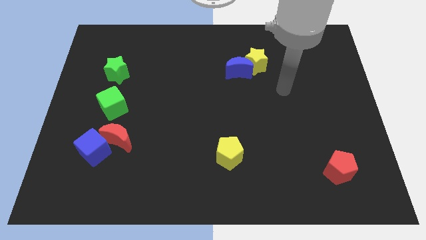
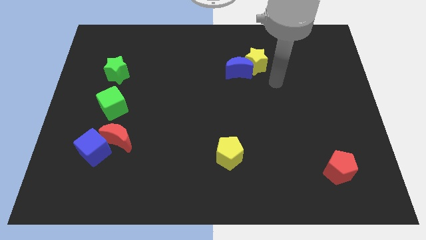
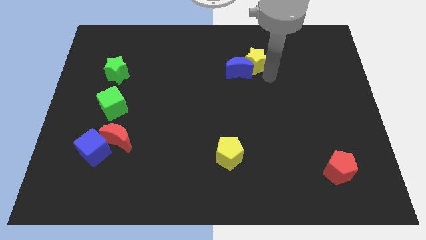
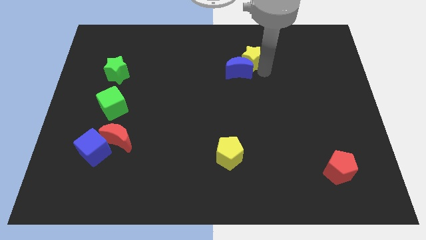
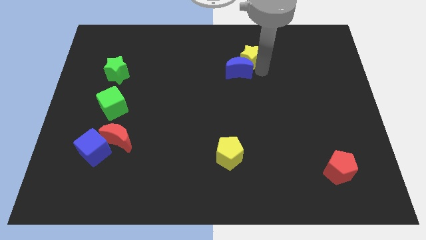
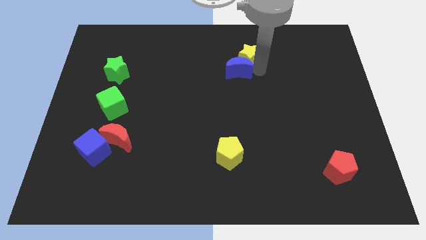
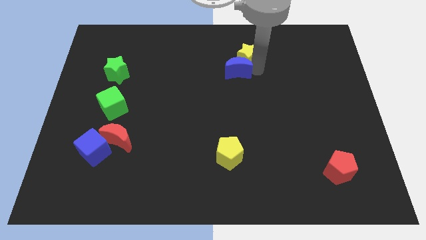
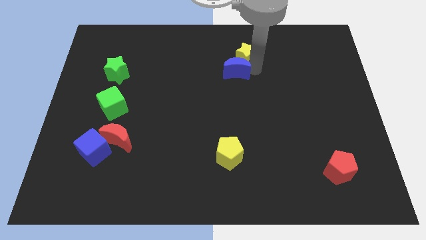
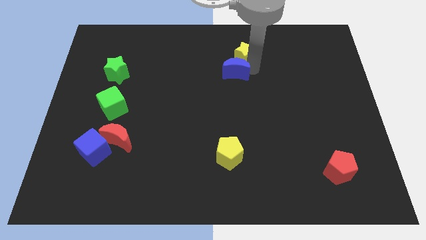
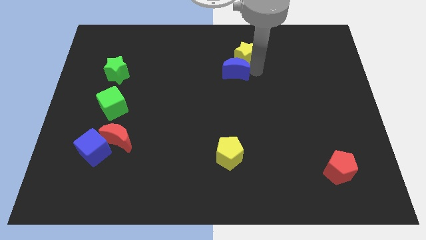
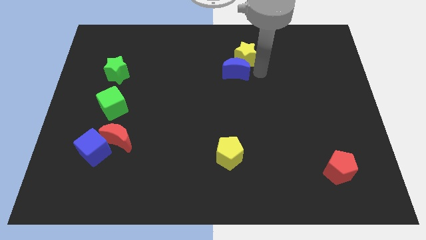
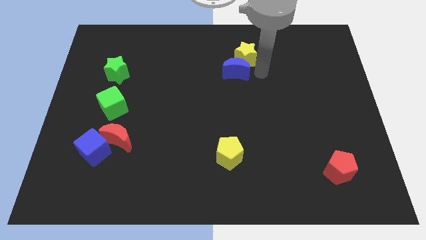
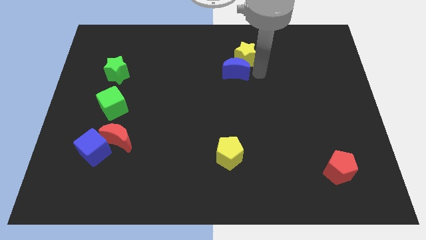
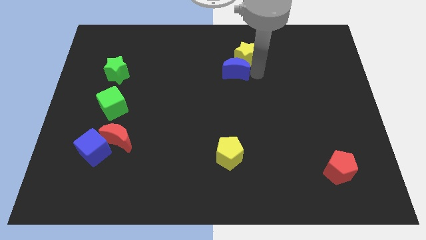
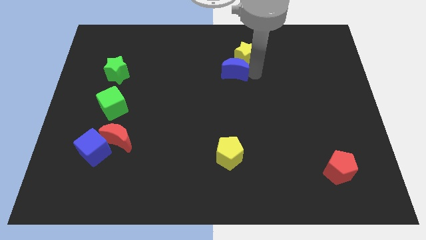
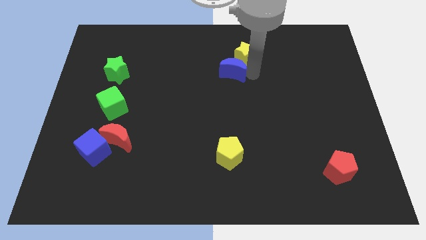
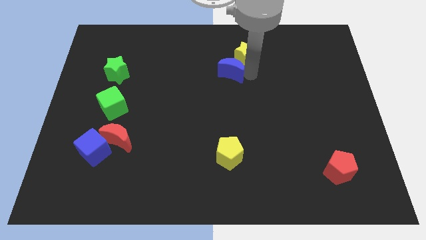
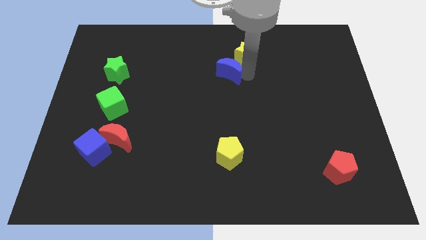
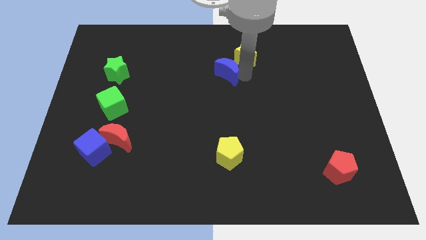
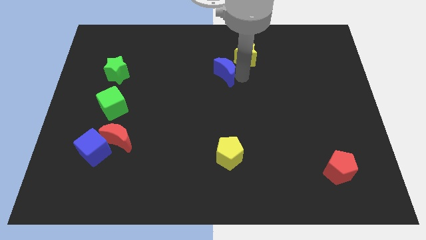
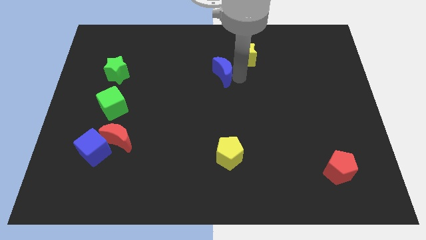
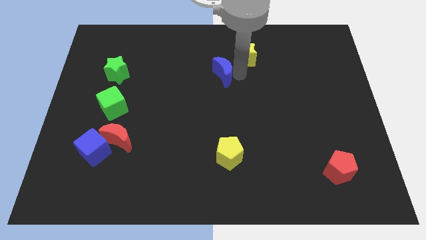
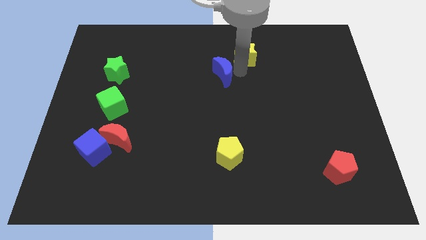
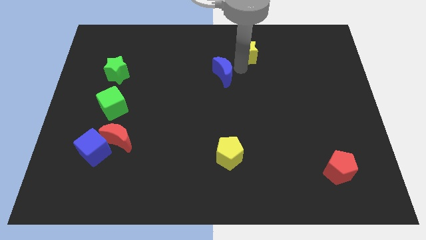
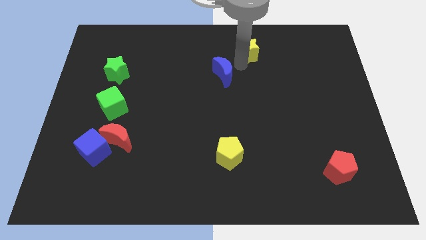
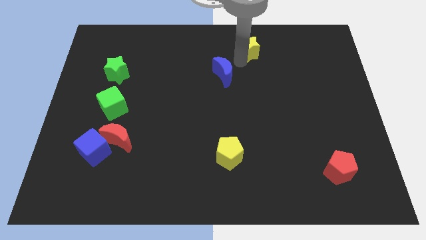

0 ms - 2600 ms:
separate the blue moon from the yellow star

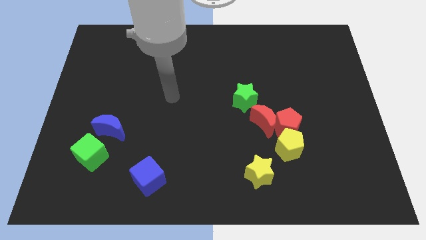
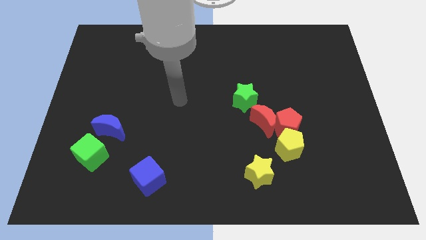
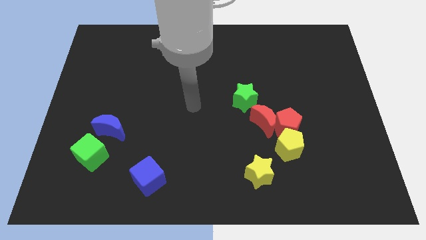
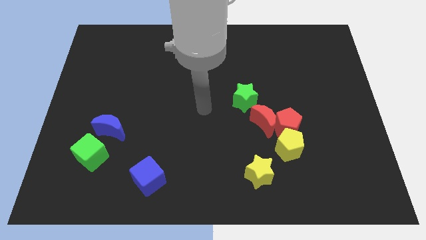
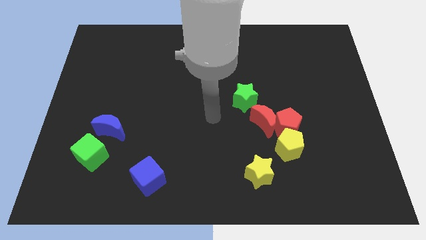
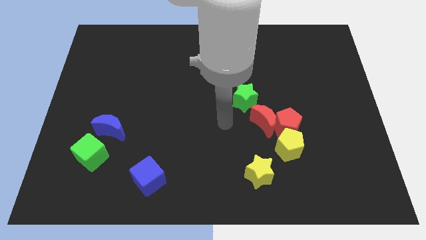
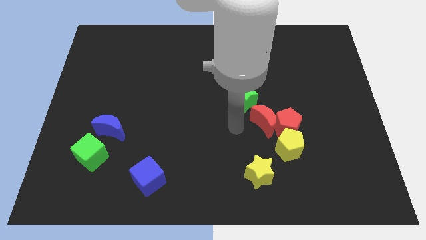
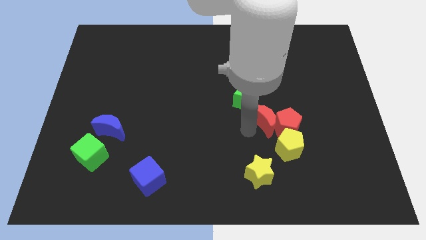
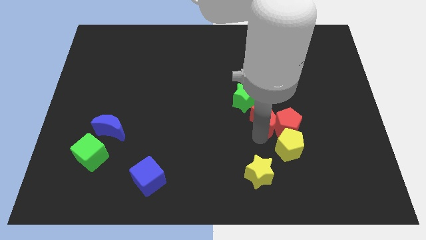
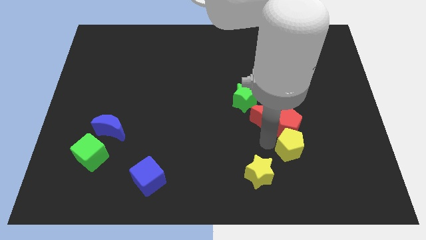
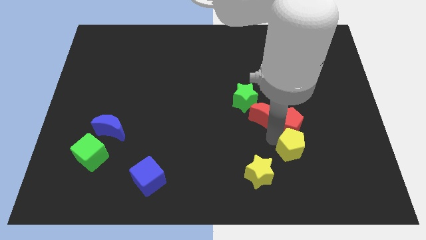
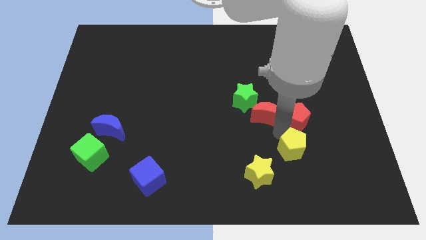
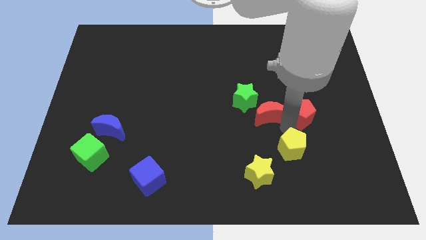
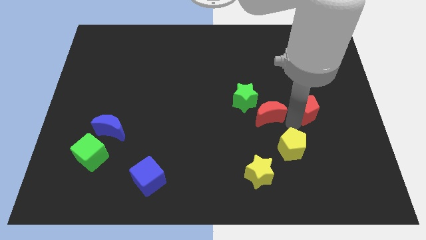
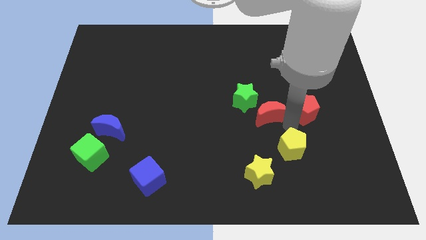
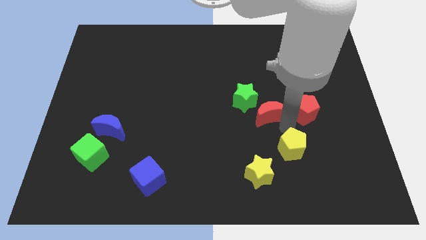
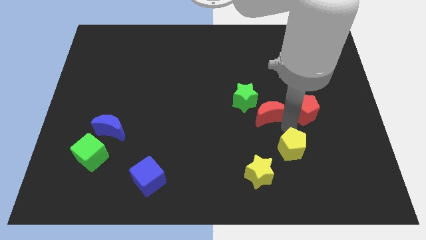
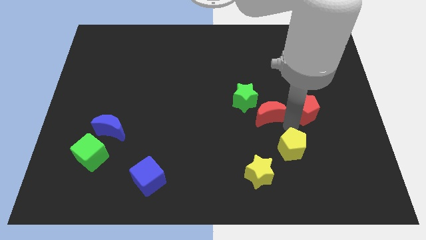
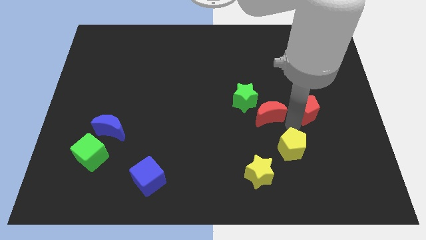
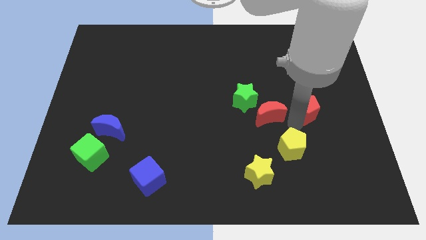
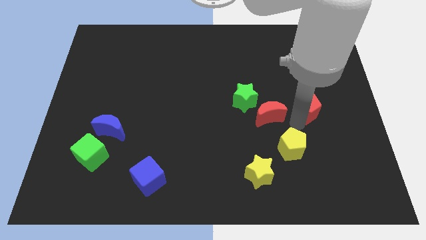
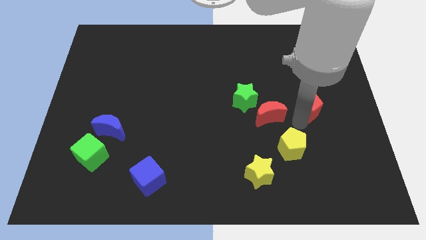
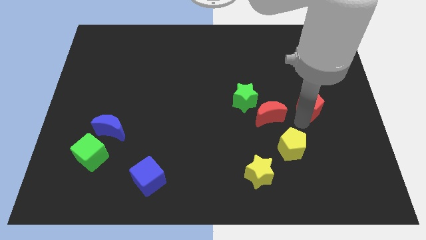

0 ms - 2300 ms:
pull the red pentagon apart from the red moon and yellow pentagon

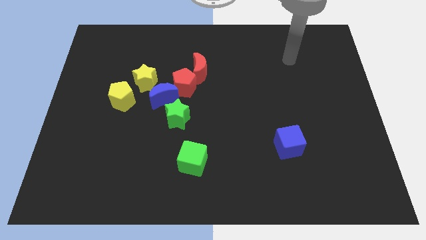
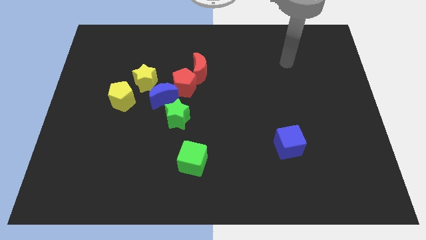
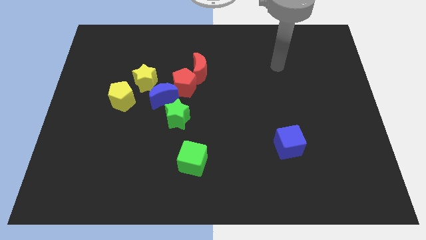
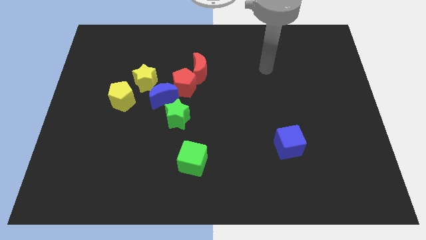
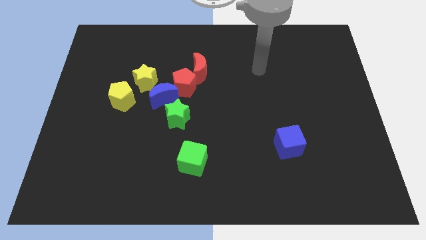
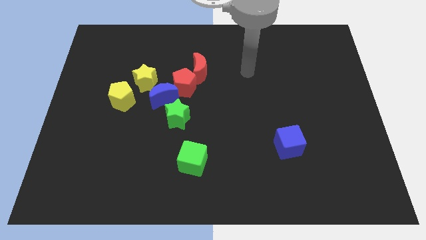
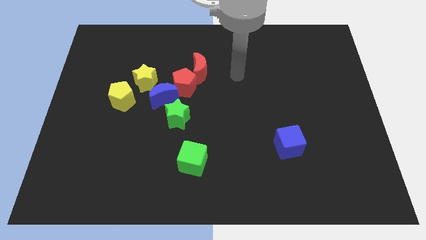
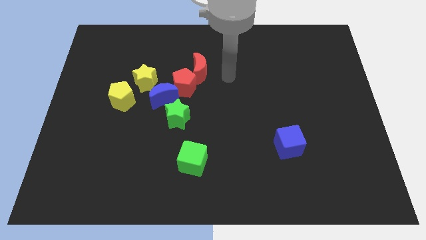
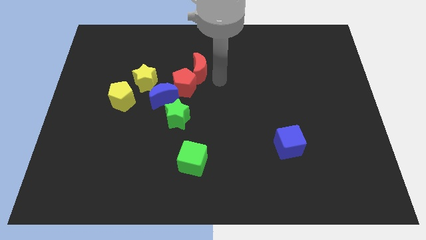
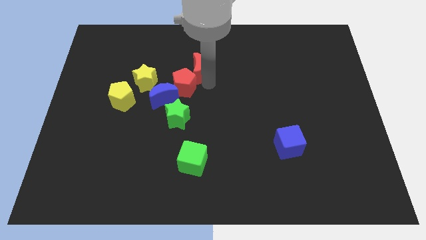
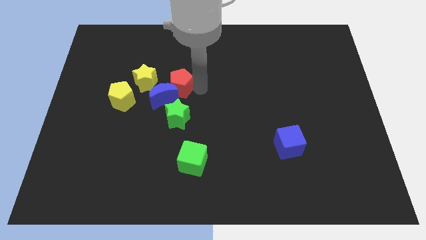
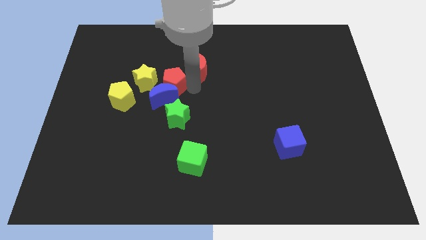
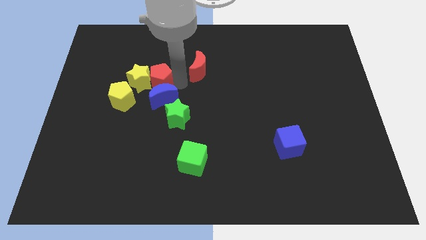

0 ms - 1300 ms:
pull the red moon apart from the red pentagon

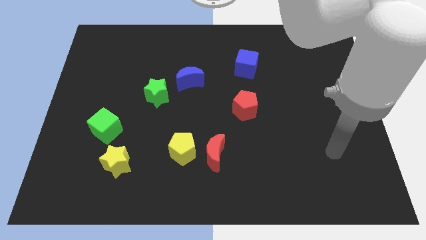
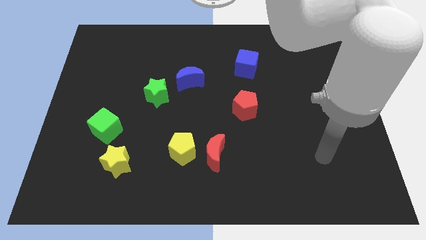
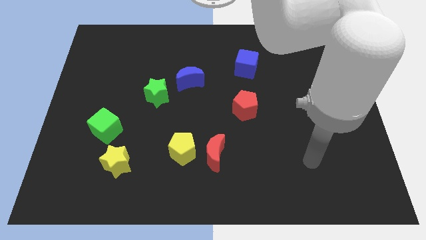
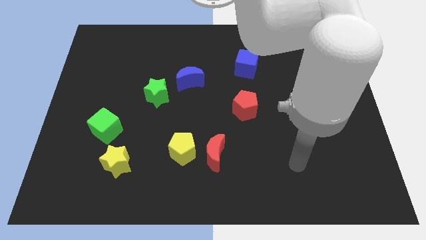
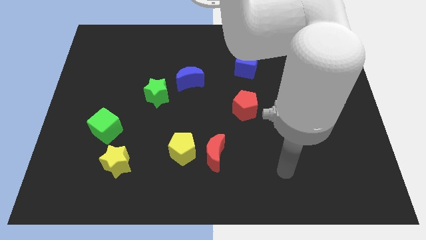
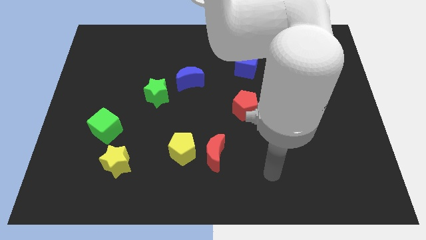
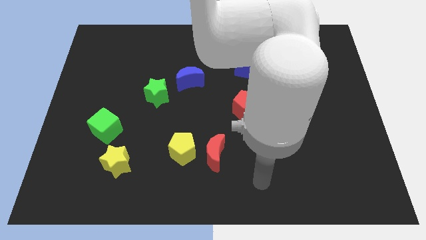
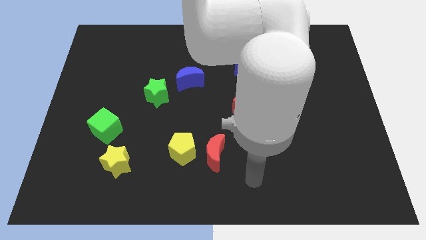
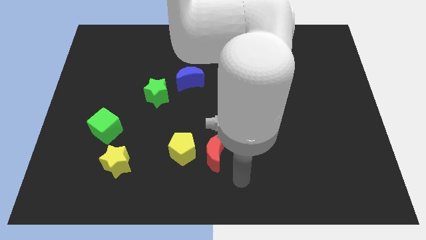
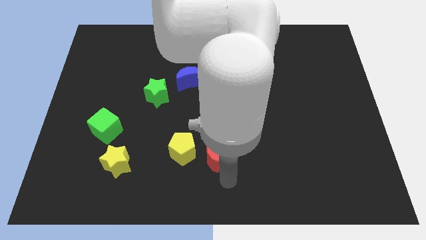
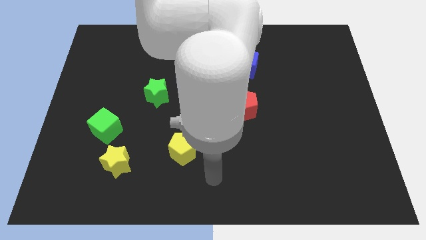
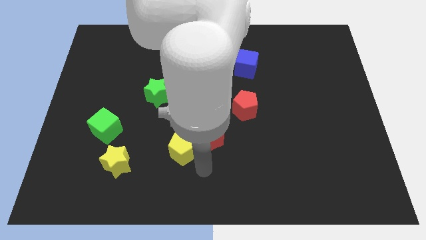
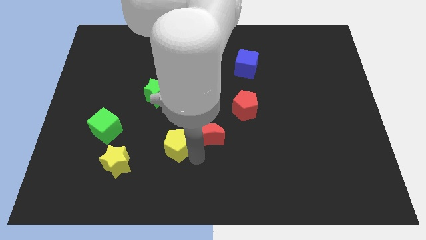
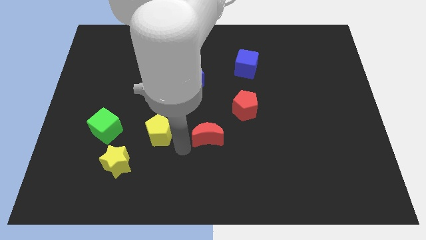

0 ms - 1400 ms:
separate the red moon from the yellow pentagon

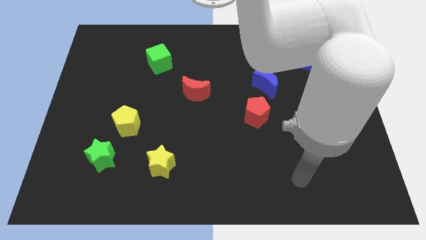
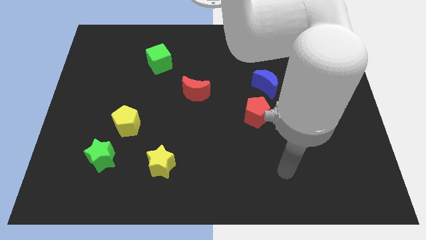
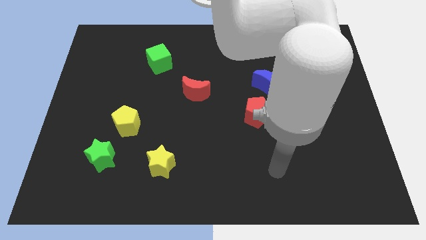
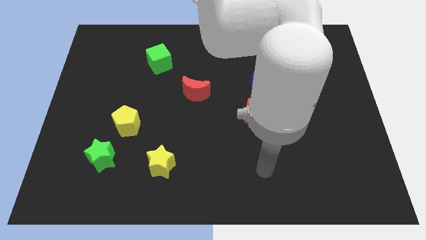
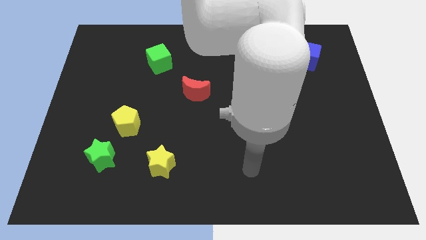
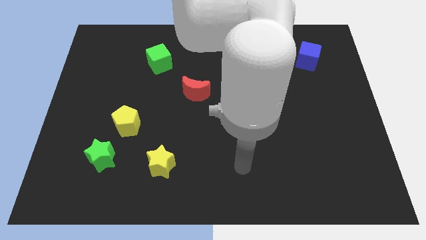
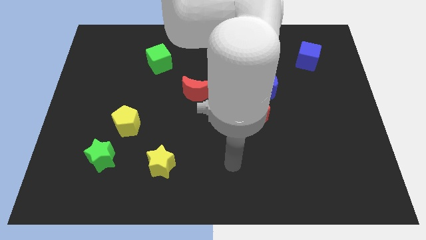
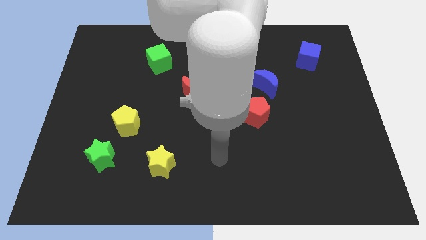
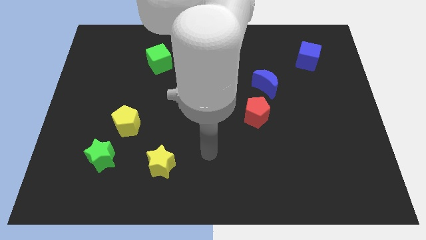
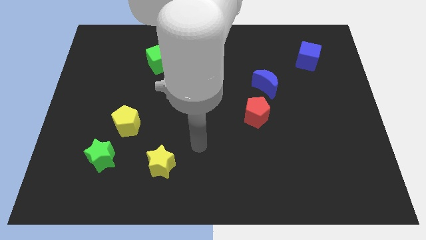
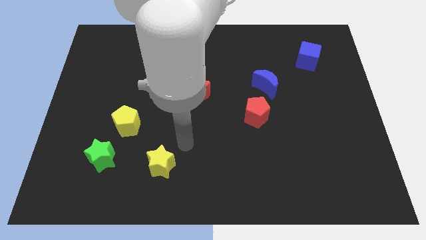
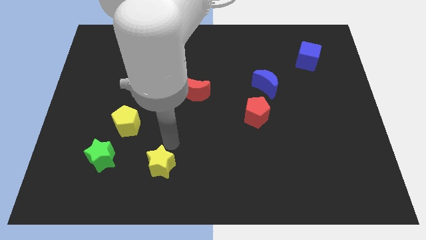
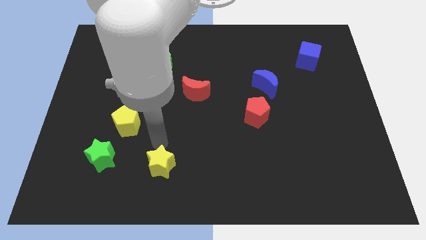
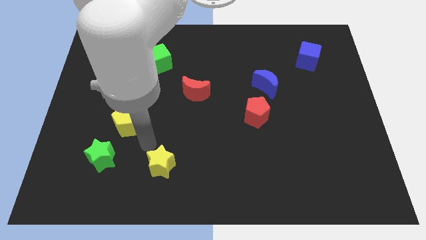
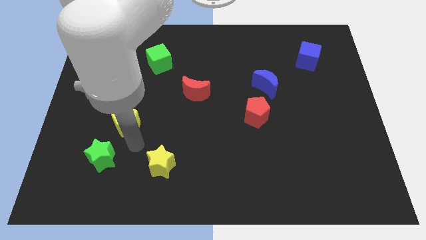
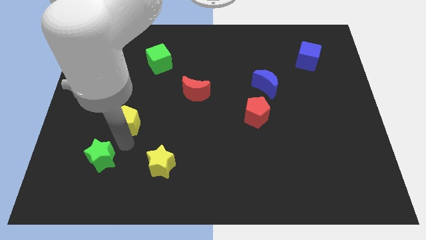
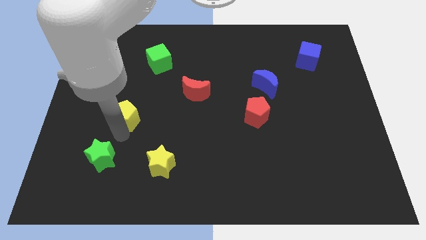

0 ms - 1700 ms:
separate the green star from the yellow pentagon
